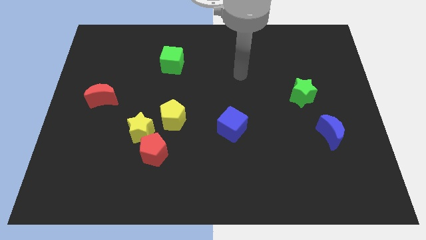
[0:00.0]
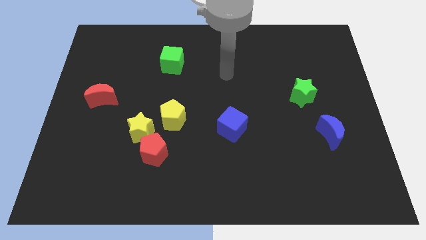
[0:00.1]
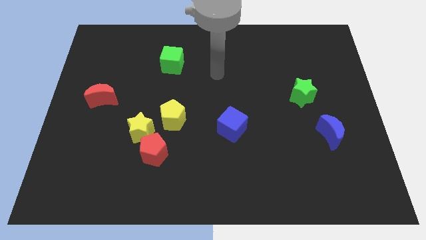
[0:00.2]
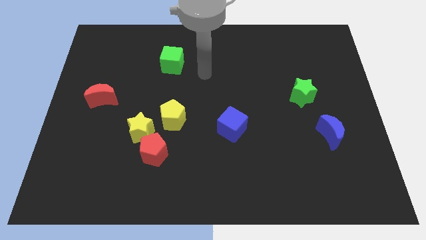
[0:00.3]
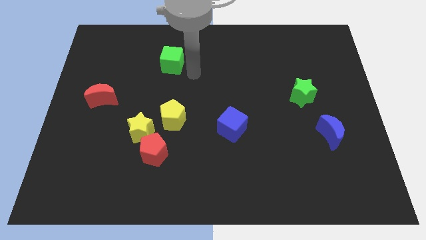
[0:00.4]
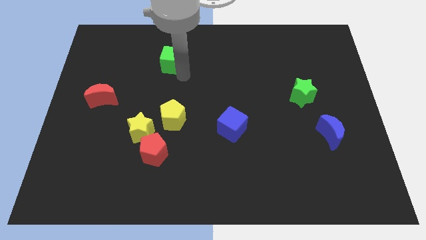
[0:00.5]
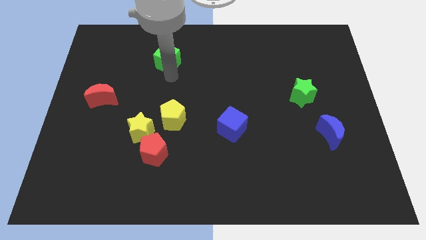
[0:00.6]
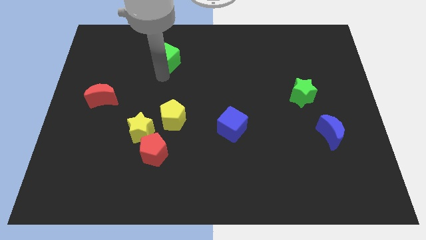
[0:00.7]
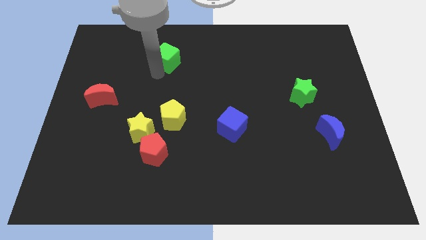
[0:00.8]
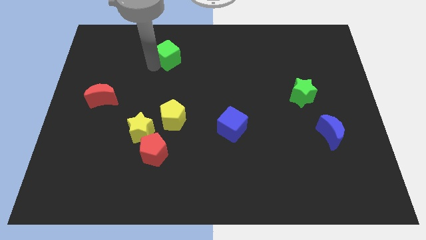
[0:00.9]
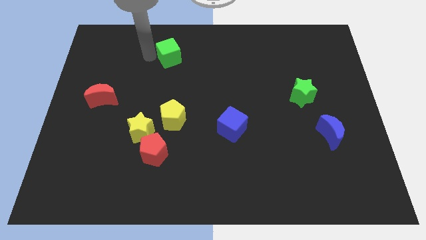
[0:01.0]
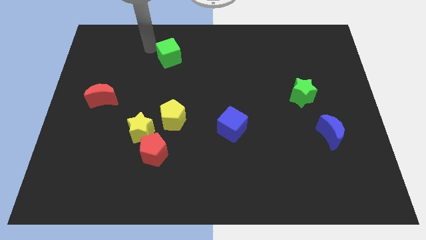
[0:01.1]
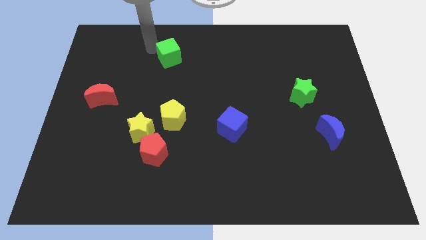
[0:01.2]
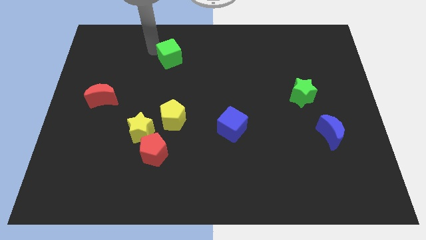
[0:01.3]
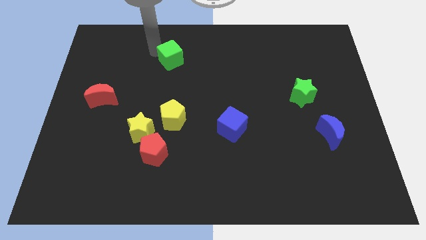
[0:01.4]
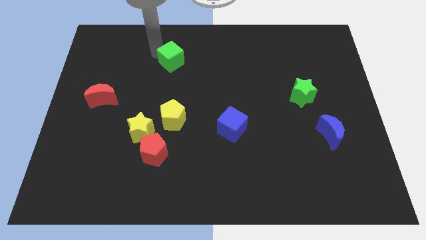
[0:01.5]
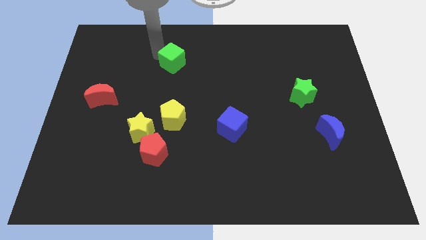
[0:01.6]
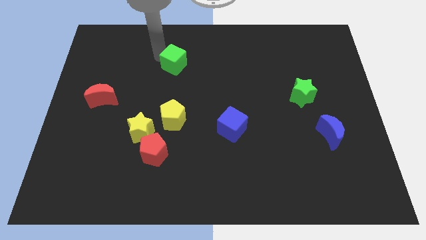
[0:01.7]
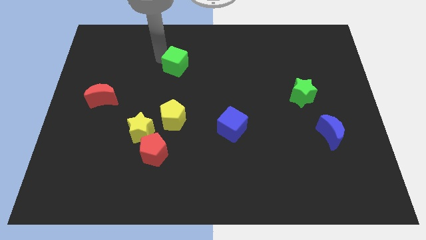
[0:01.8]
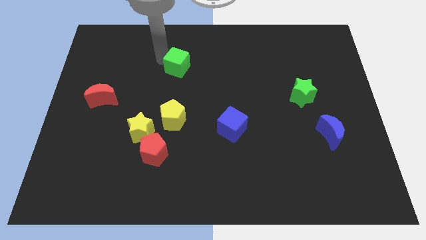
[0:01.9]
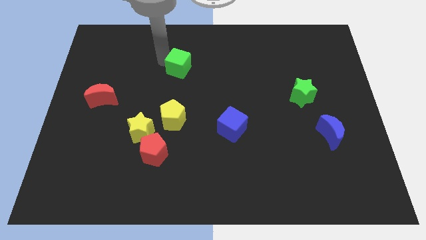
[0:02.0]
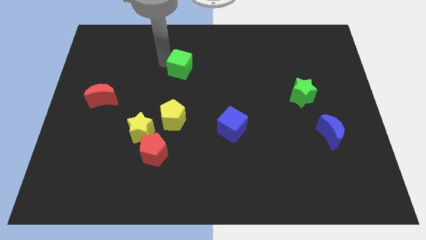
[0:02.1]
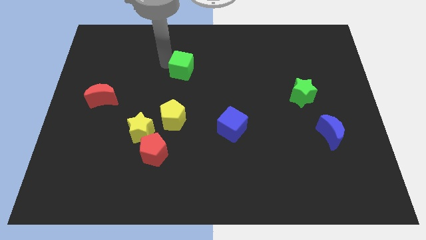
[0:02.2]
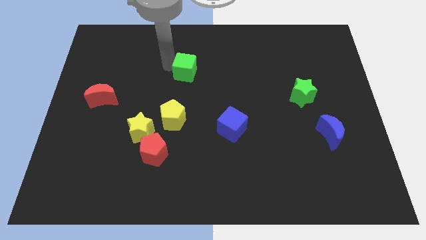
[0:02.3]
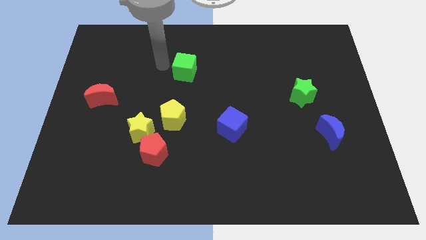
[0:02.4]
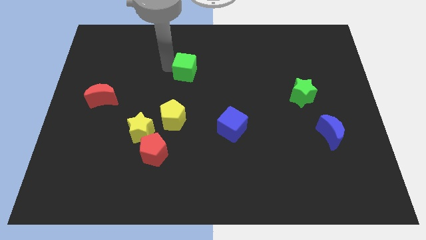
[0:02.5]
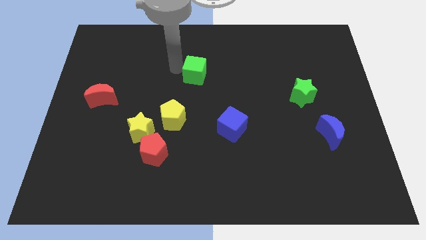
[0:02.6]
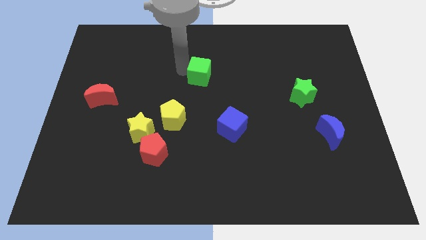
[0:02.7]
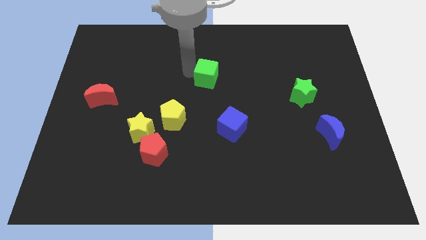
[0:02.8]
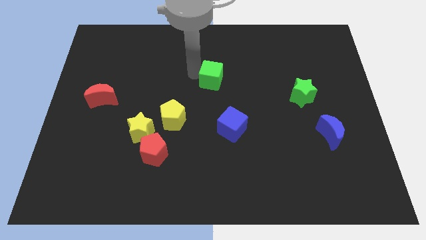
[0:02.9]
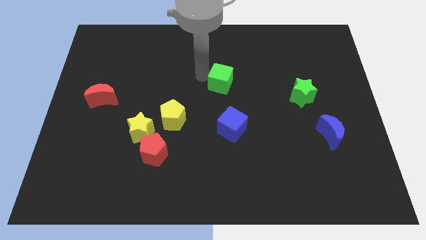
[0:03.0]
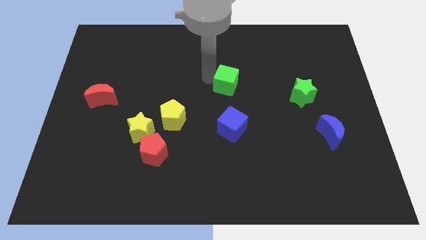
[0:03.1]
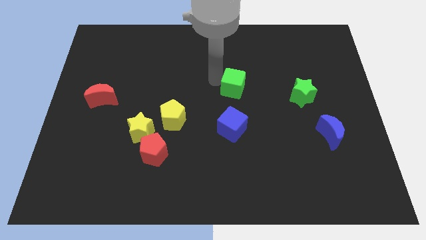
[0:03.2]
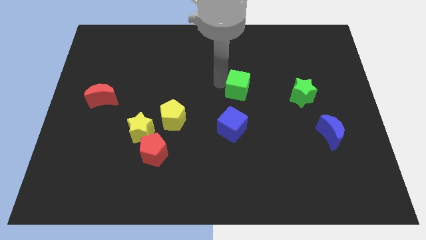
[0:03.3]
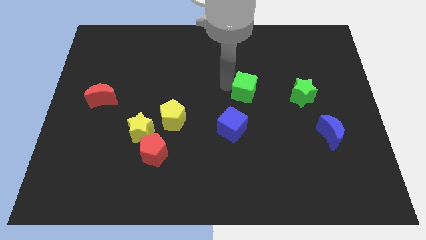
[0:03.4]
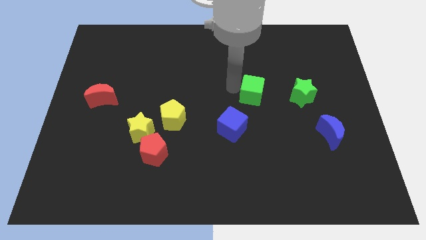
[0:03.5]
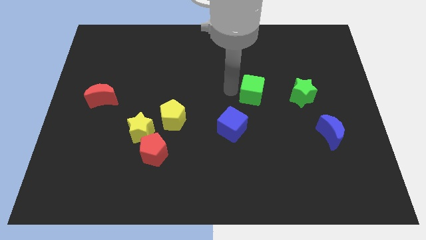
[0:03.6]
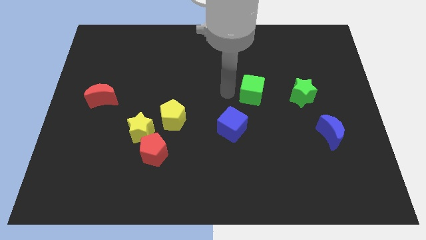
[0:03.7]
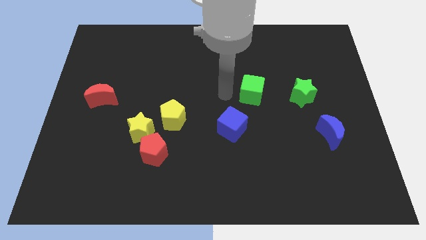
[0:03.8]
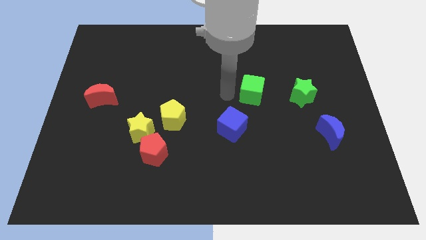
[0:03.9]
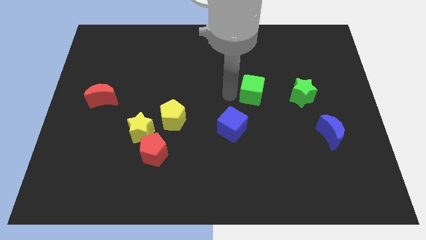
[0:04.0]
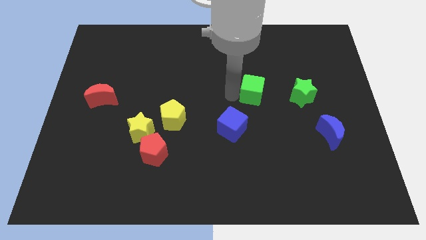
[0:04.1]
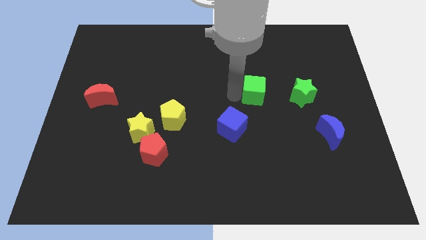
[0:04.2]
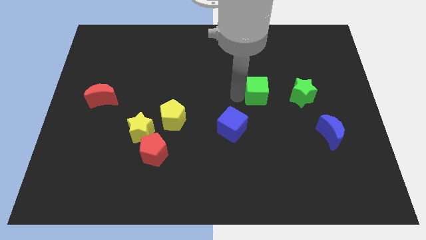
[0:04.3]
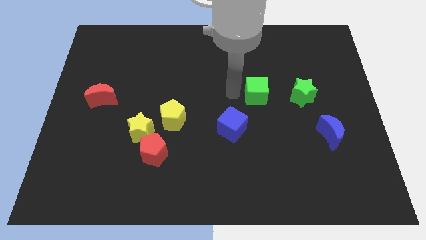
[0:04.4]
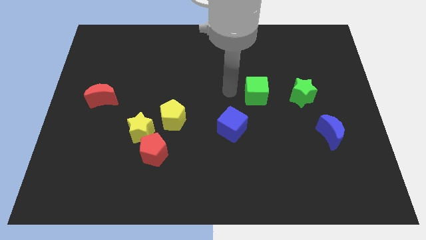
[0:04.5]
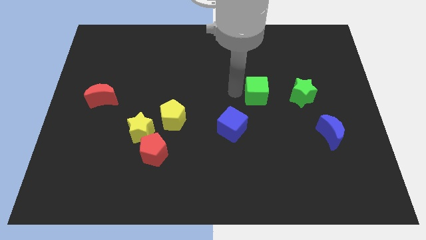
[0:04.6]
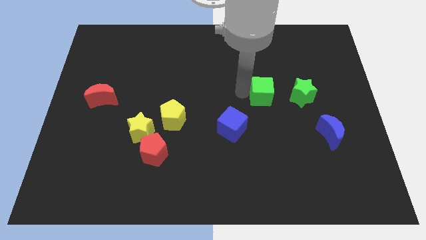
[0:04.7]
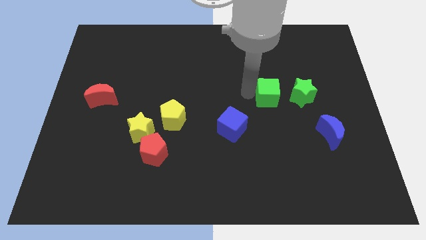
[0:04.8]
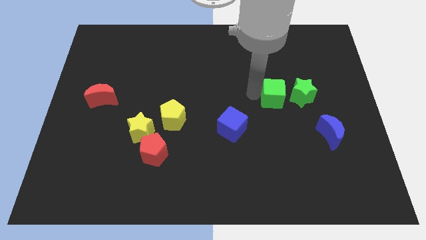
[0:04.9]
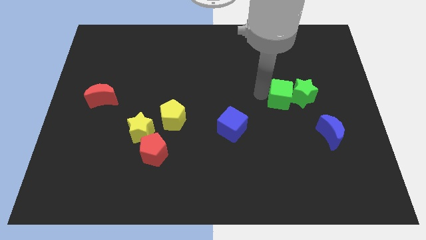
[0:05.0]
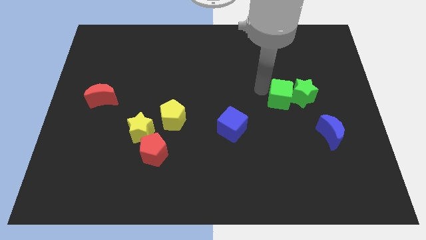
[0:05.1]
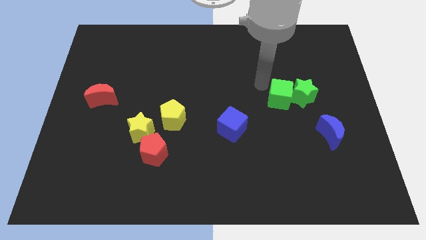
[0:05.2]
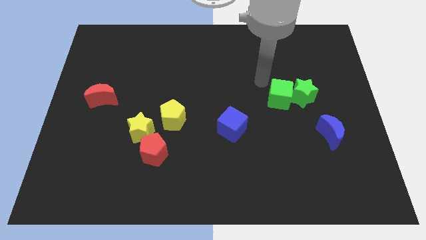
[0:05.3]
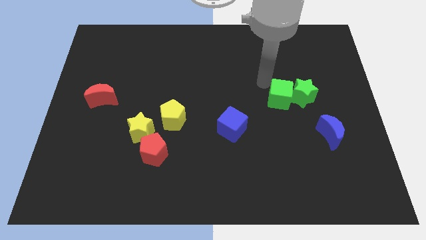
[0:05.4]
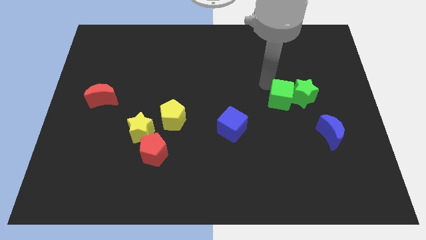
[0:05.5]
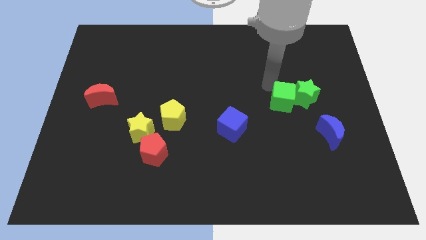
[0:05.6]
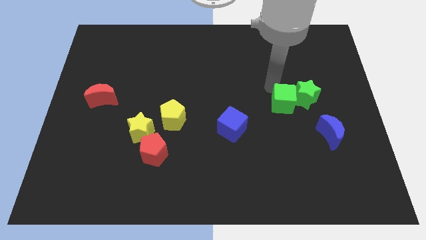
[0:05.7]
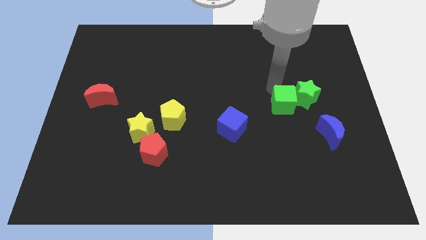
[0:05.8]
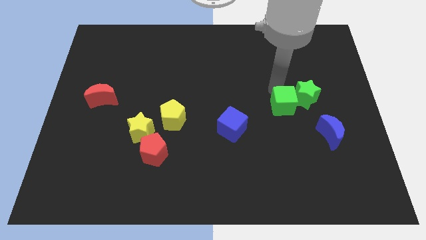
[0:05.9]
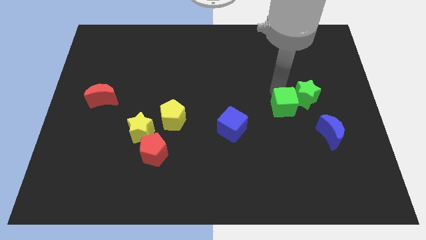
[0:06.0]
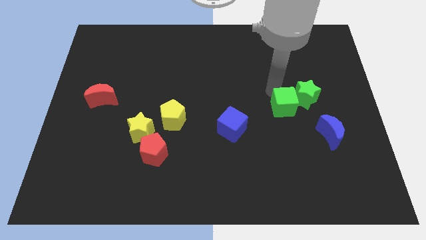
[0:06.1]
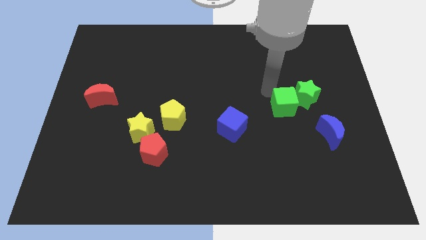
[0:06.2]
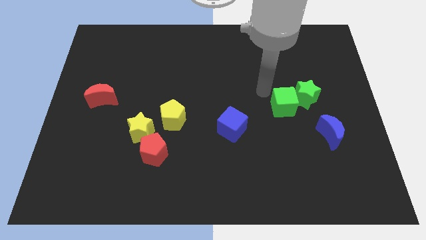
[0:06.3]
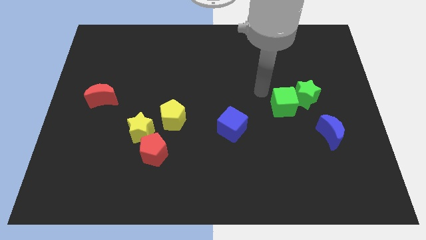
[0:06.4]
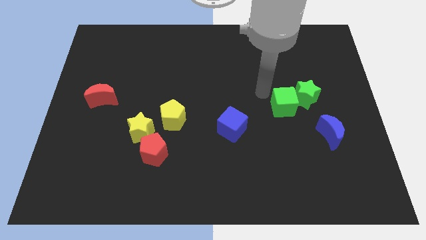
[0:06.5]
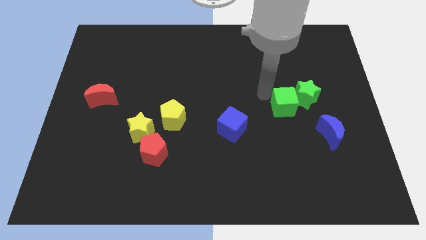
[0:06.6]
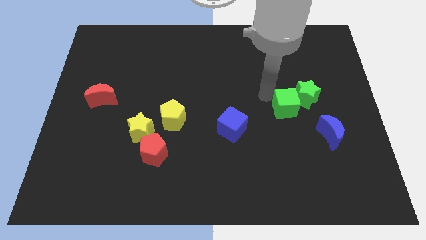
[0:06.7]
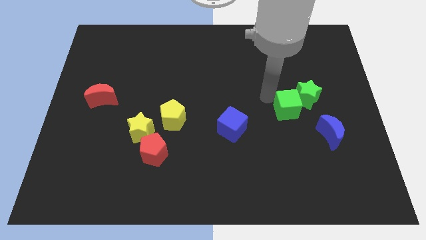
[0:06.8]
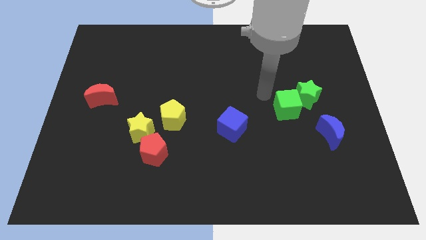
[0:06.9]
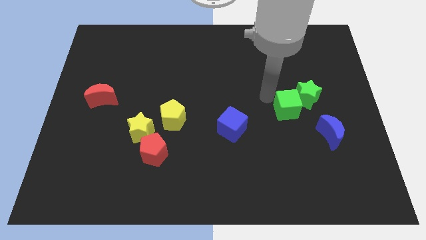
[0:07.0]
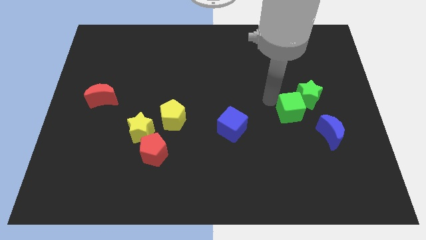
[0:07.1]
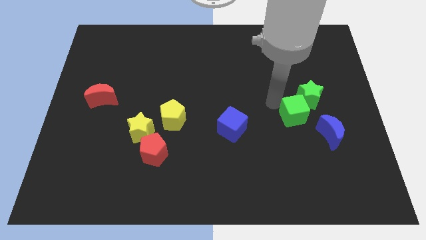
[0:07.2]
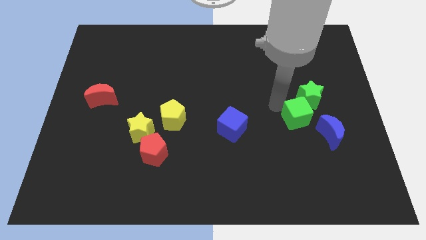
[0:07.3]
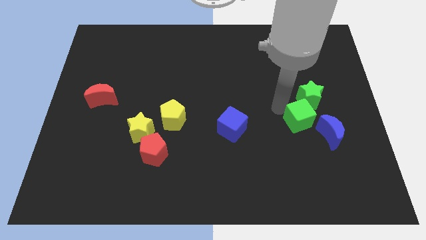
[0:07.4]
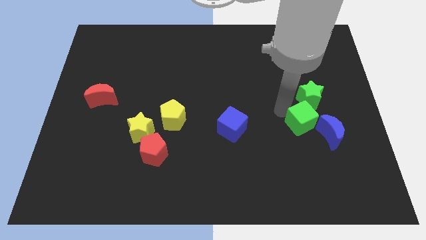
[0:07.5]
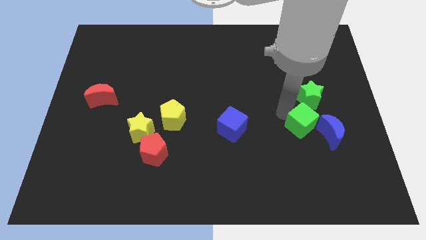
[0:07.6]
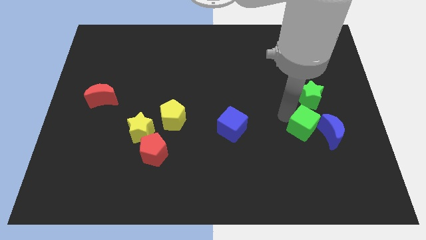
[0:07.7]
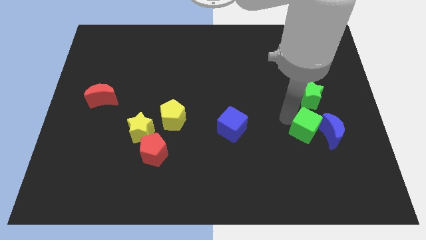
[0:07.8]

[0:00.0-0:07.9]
slide the green cube close to the blue moon
